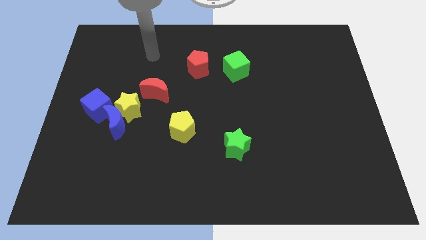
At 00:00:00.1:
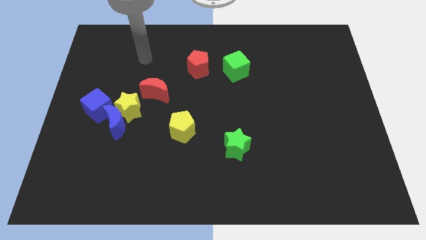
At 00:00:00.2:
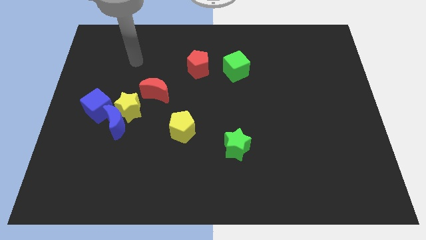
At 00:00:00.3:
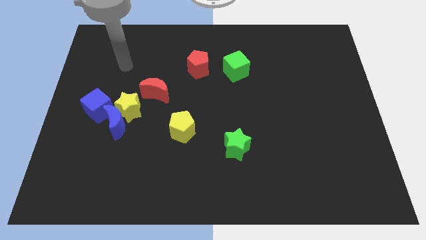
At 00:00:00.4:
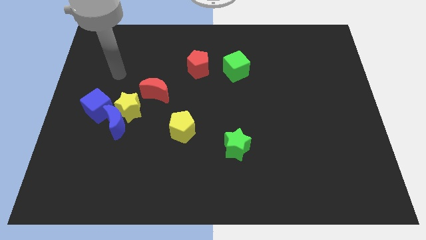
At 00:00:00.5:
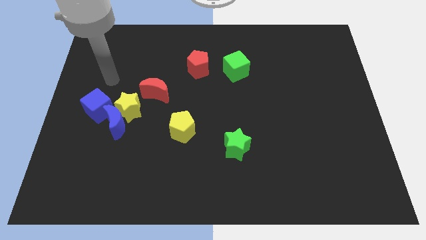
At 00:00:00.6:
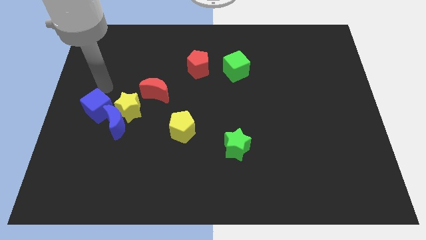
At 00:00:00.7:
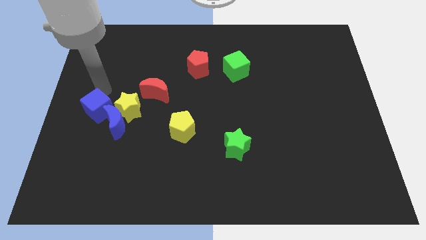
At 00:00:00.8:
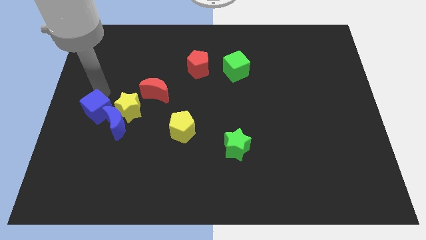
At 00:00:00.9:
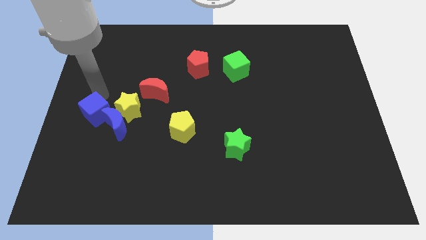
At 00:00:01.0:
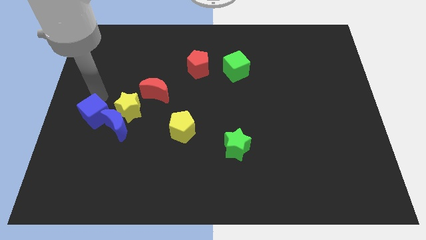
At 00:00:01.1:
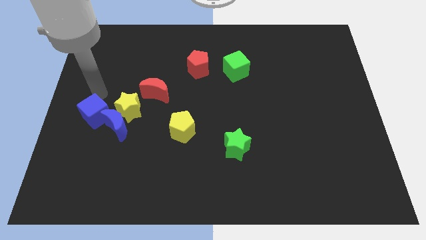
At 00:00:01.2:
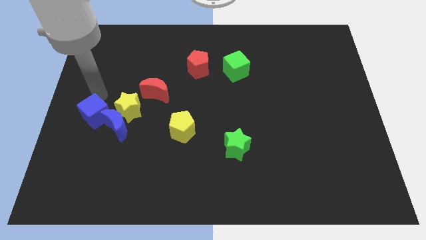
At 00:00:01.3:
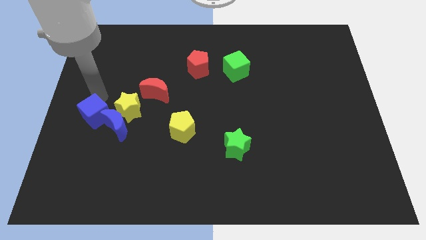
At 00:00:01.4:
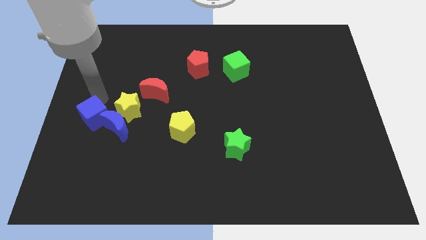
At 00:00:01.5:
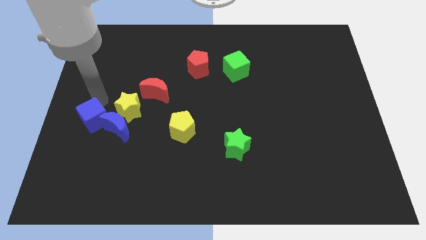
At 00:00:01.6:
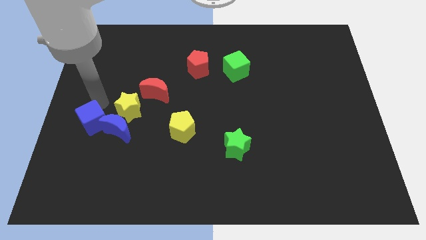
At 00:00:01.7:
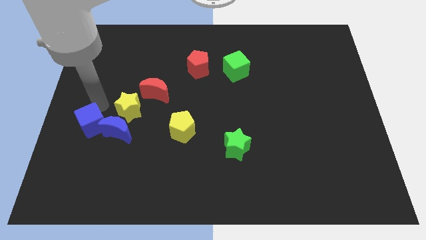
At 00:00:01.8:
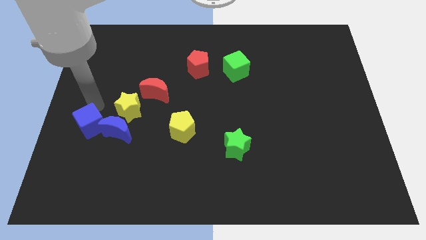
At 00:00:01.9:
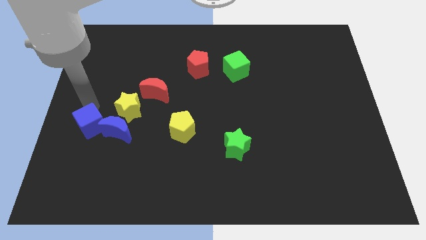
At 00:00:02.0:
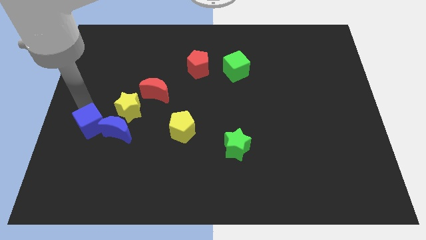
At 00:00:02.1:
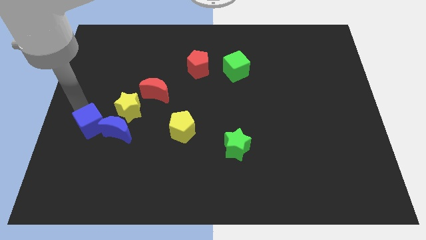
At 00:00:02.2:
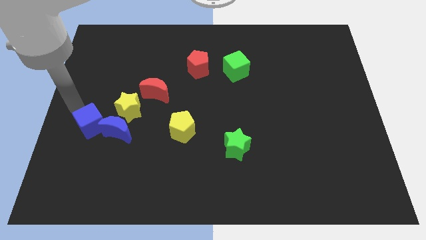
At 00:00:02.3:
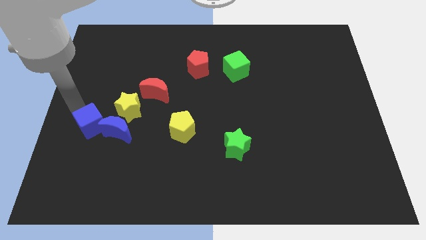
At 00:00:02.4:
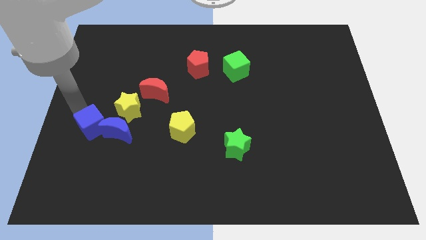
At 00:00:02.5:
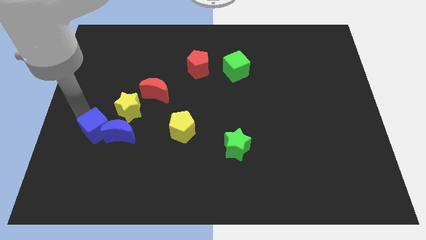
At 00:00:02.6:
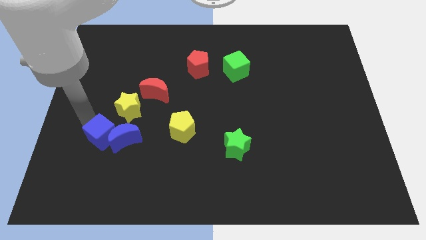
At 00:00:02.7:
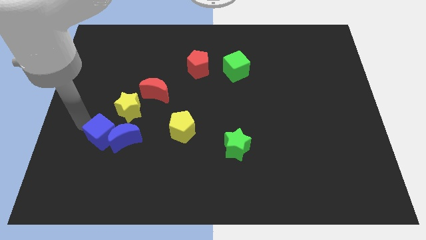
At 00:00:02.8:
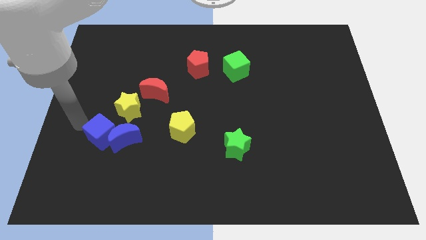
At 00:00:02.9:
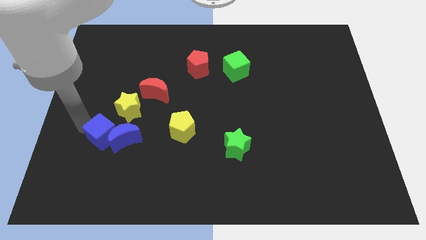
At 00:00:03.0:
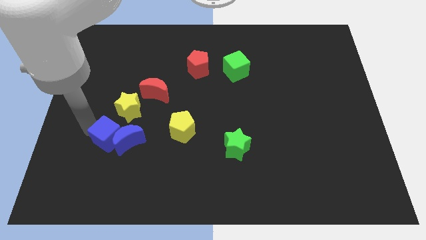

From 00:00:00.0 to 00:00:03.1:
push the blue cube somewhat downwards and then to the right

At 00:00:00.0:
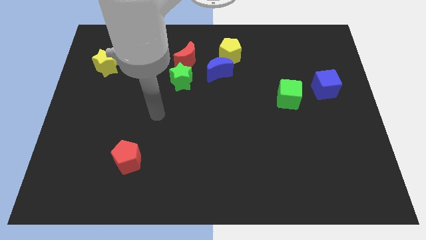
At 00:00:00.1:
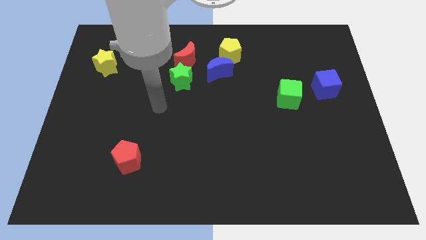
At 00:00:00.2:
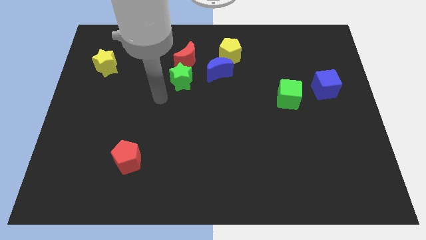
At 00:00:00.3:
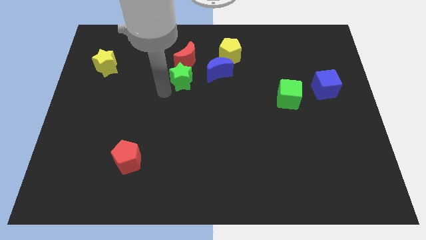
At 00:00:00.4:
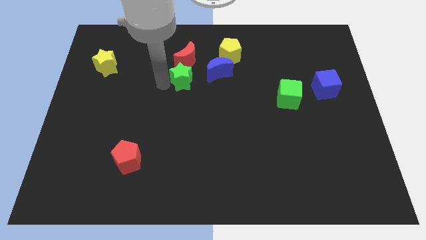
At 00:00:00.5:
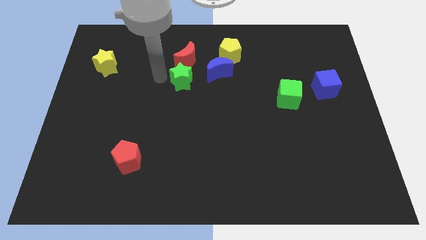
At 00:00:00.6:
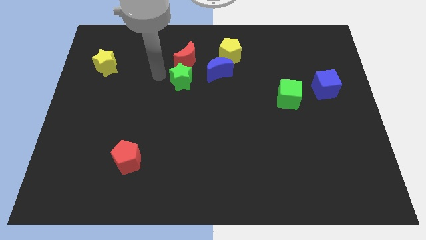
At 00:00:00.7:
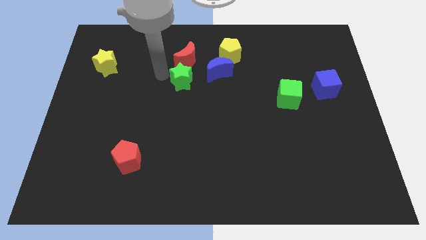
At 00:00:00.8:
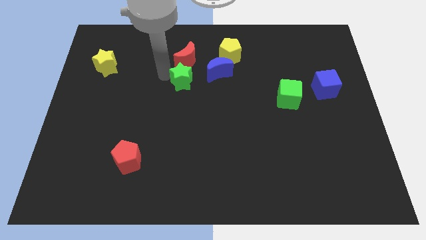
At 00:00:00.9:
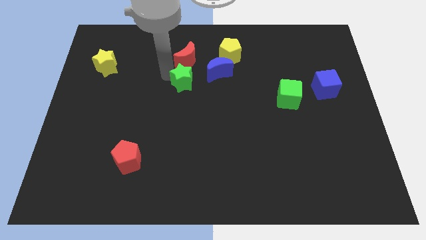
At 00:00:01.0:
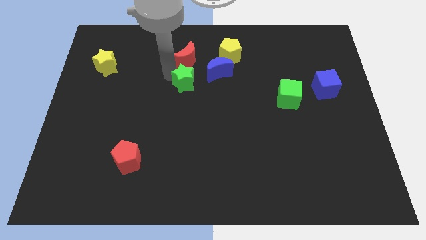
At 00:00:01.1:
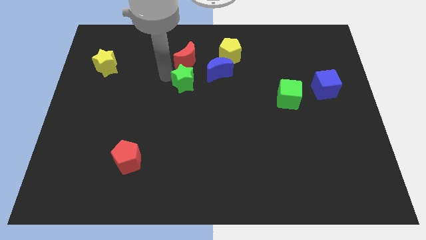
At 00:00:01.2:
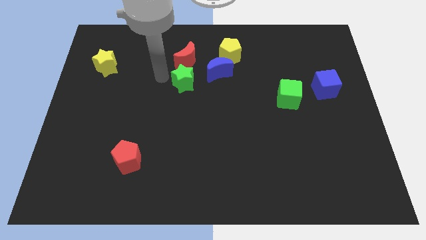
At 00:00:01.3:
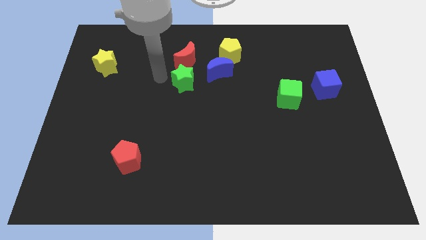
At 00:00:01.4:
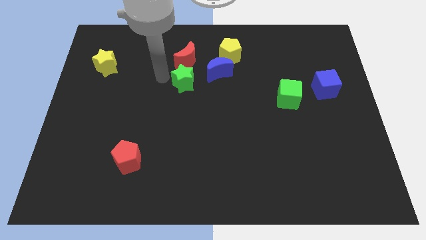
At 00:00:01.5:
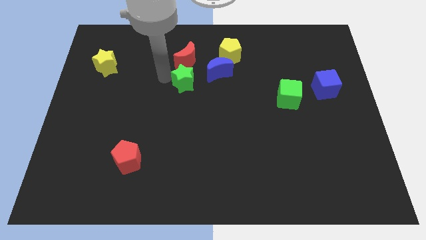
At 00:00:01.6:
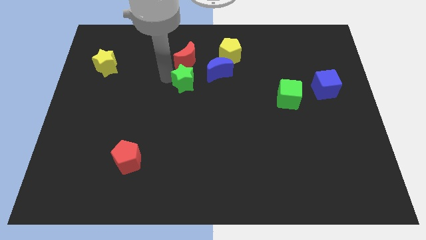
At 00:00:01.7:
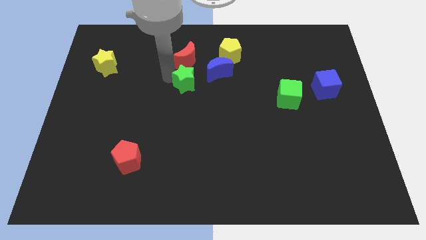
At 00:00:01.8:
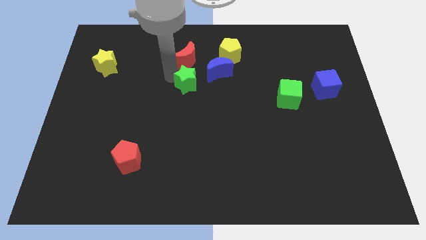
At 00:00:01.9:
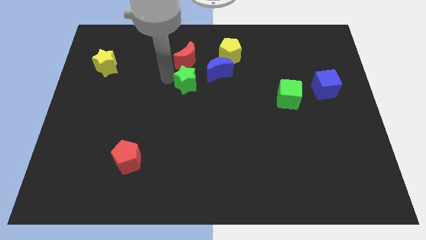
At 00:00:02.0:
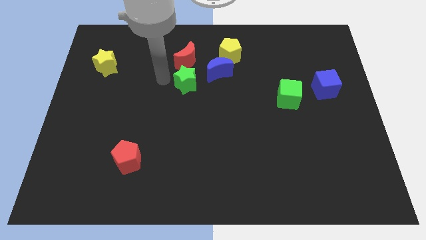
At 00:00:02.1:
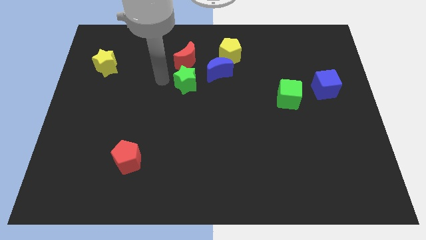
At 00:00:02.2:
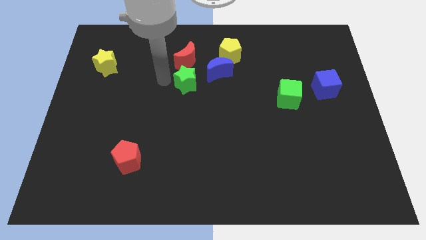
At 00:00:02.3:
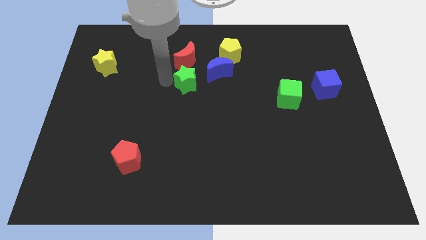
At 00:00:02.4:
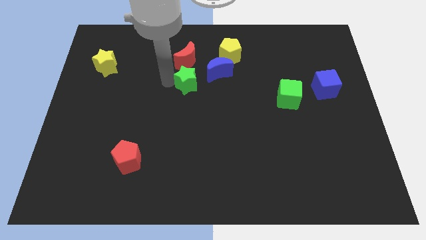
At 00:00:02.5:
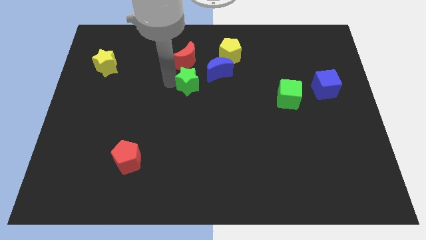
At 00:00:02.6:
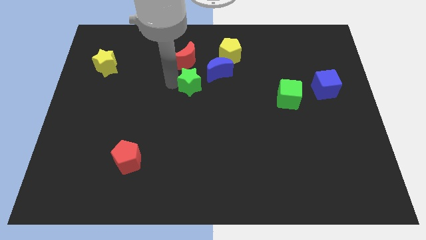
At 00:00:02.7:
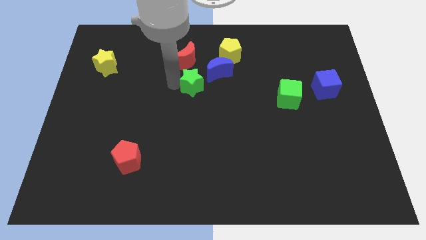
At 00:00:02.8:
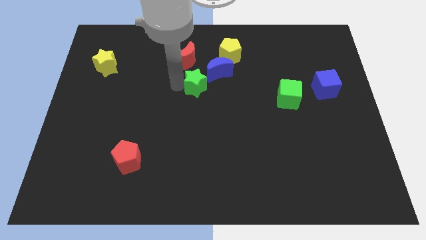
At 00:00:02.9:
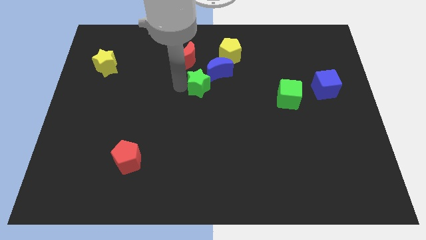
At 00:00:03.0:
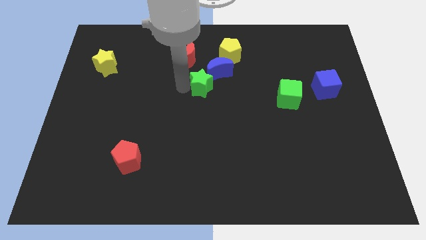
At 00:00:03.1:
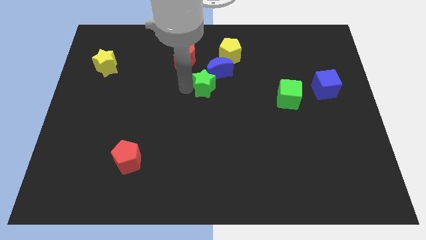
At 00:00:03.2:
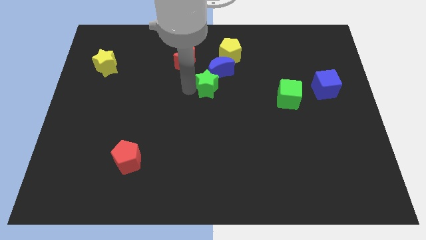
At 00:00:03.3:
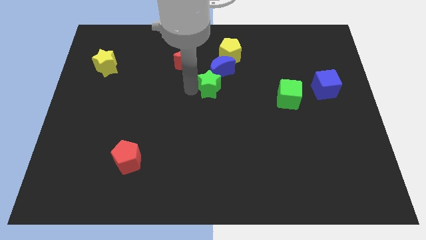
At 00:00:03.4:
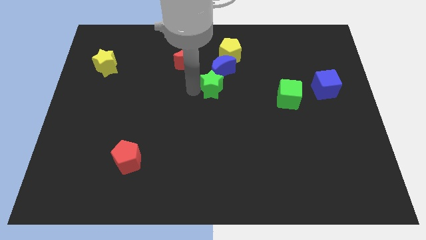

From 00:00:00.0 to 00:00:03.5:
slide the green star a little right

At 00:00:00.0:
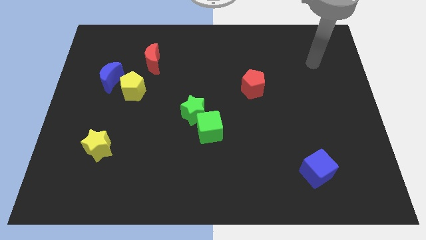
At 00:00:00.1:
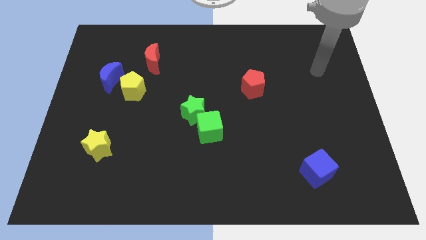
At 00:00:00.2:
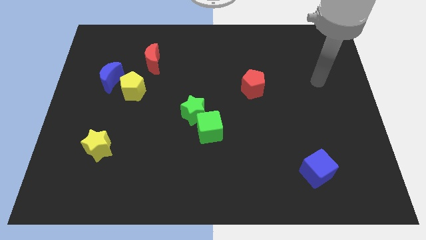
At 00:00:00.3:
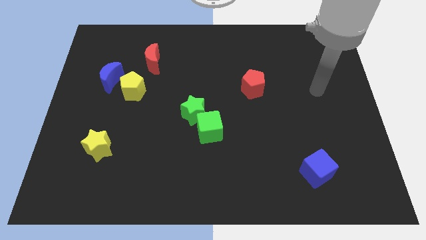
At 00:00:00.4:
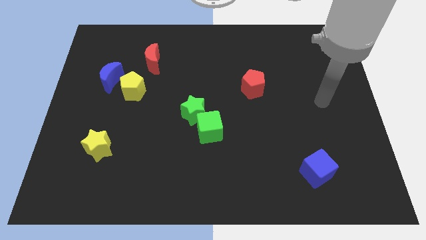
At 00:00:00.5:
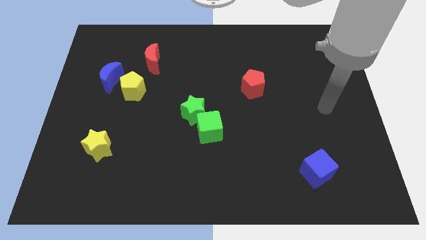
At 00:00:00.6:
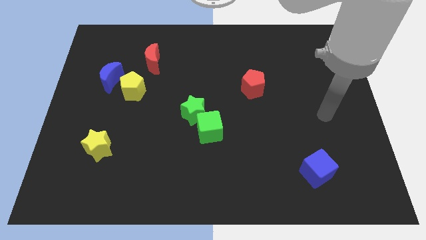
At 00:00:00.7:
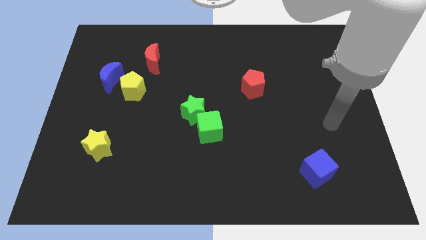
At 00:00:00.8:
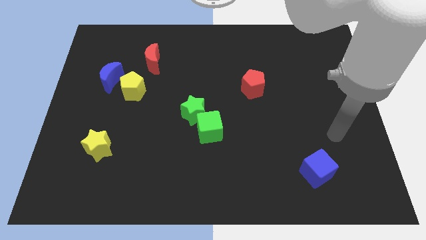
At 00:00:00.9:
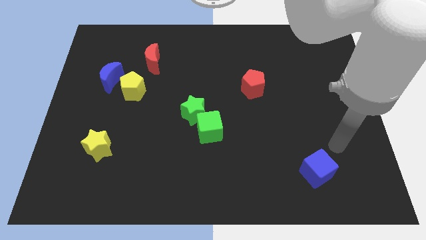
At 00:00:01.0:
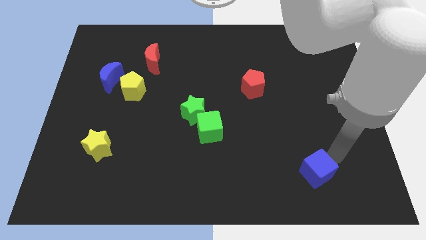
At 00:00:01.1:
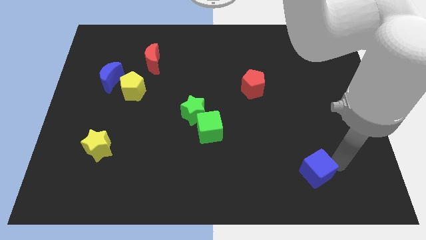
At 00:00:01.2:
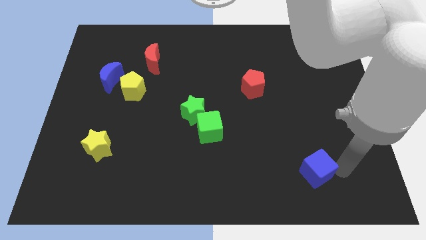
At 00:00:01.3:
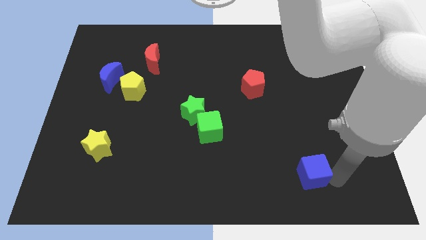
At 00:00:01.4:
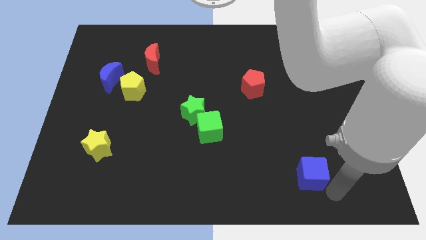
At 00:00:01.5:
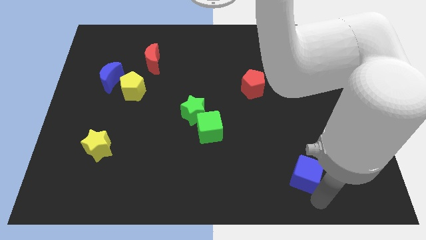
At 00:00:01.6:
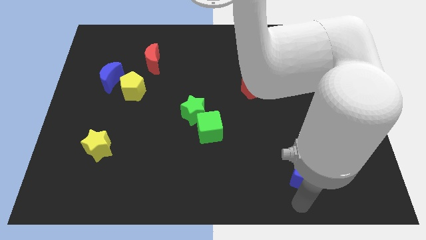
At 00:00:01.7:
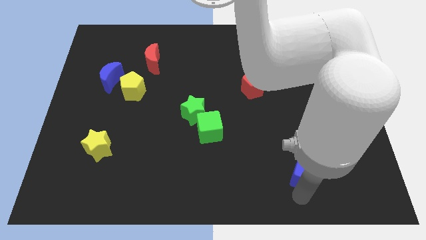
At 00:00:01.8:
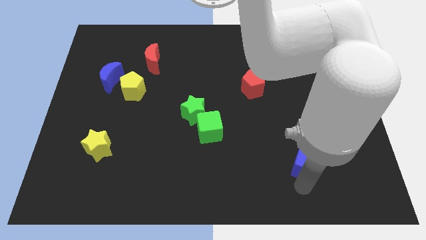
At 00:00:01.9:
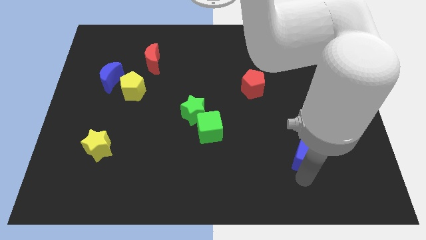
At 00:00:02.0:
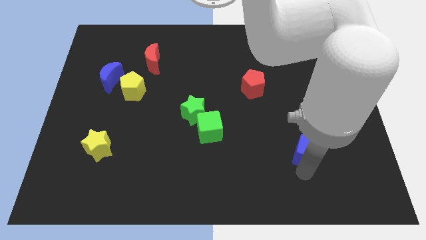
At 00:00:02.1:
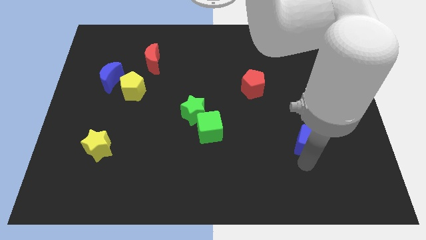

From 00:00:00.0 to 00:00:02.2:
slightly move the blue cube upwards
